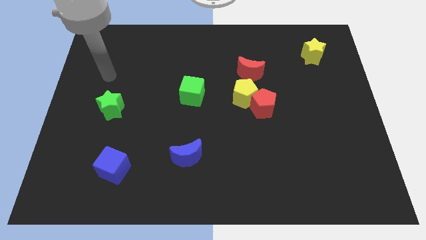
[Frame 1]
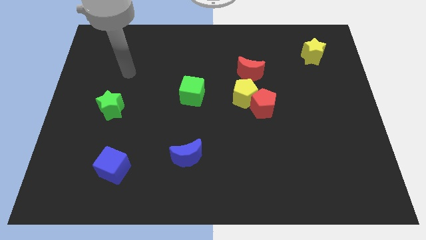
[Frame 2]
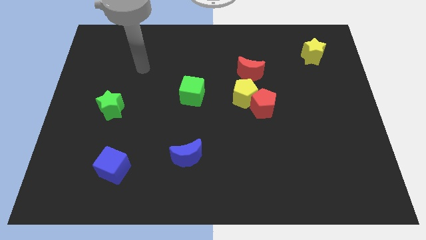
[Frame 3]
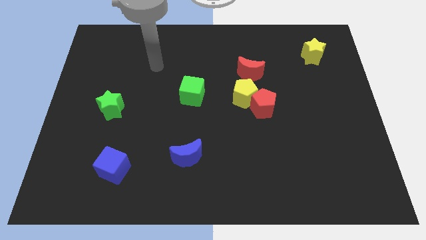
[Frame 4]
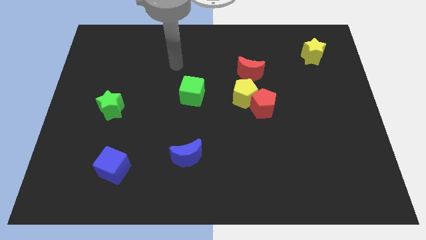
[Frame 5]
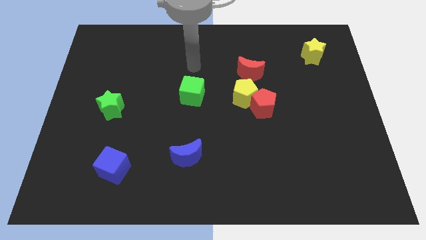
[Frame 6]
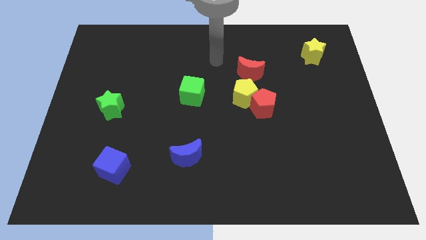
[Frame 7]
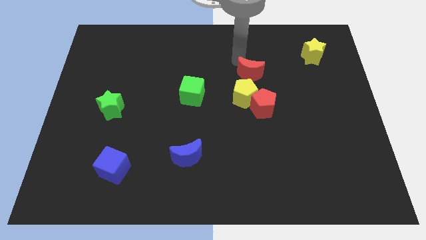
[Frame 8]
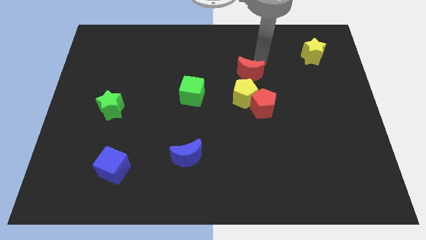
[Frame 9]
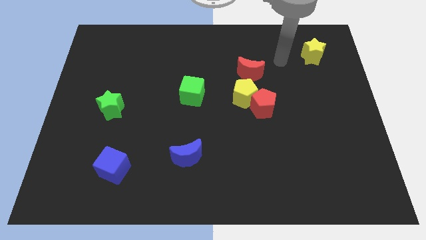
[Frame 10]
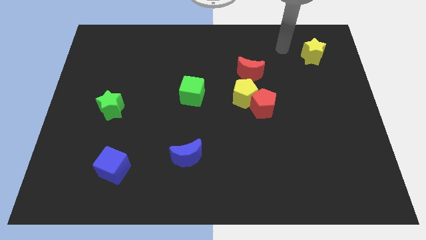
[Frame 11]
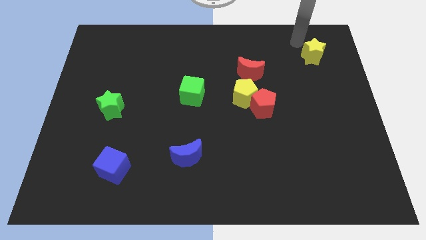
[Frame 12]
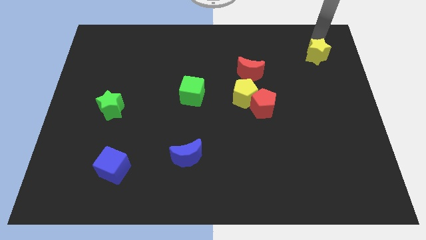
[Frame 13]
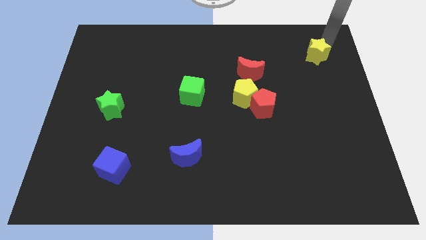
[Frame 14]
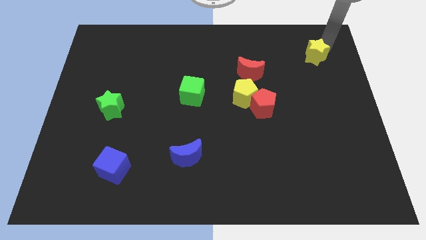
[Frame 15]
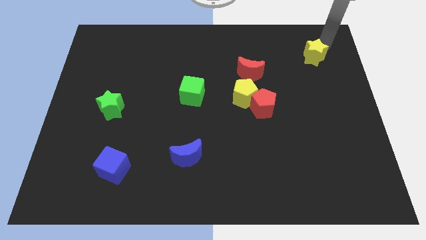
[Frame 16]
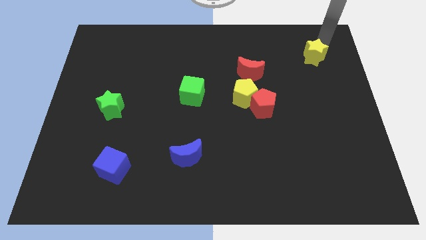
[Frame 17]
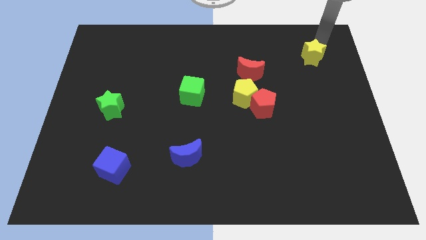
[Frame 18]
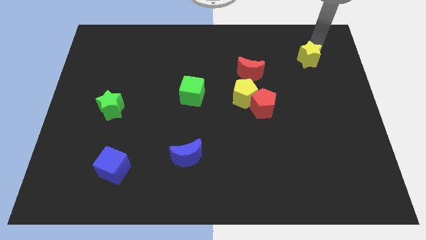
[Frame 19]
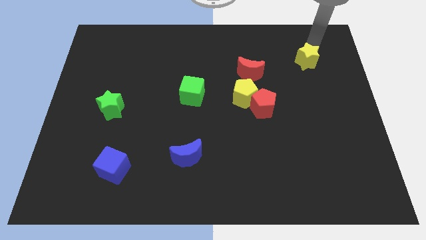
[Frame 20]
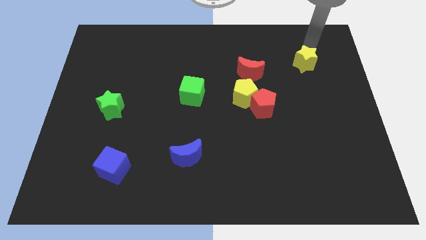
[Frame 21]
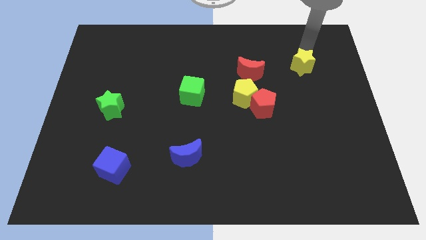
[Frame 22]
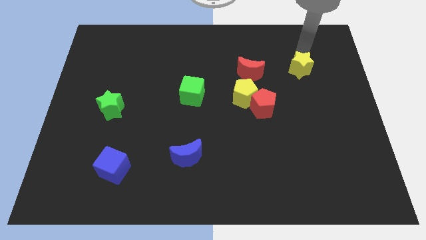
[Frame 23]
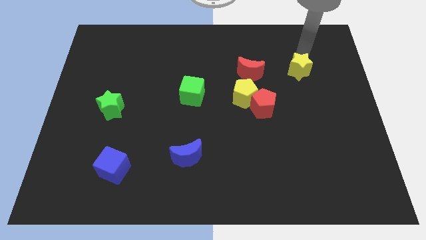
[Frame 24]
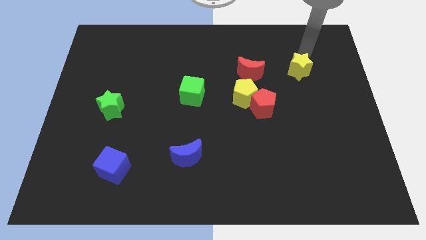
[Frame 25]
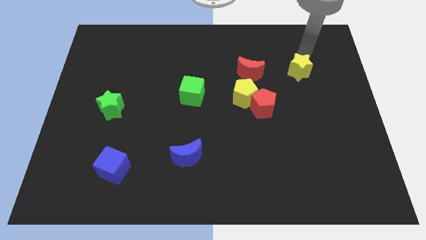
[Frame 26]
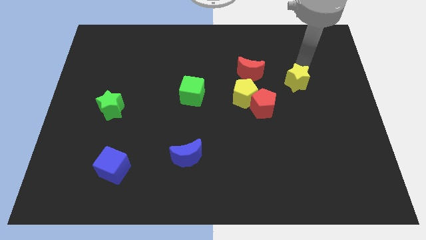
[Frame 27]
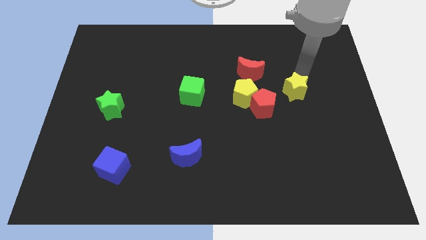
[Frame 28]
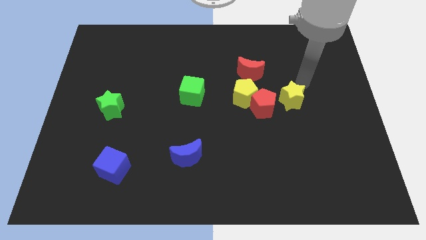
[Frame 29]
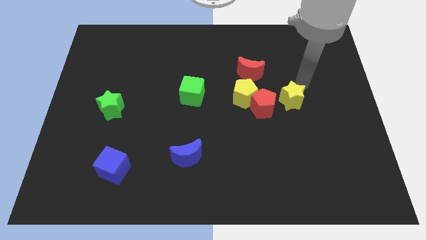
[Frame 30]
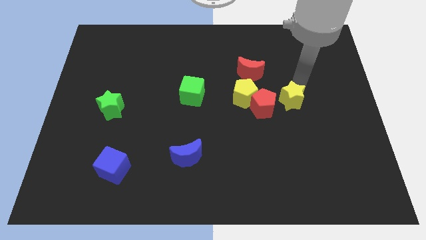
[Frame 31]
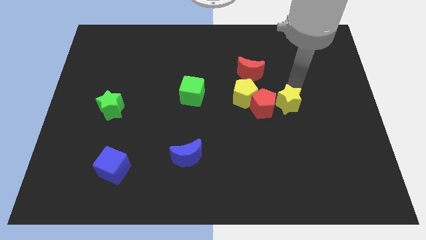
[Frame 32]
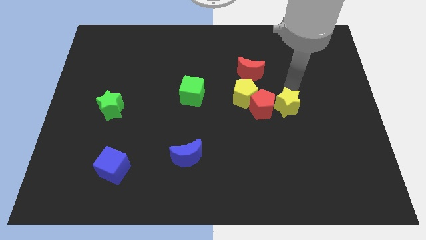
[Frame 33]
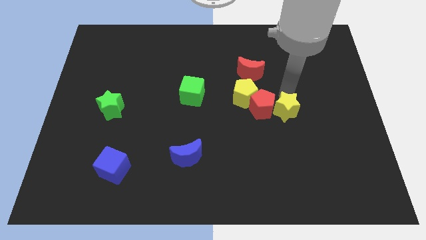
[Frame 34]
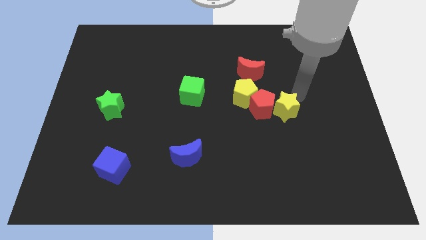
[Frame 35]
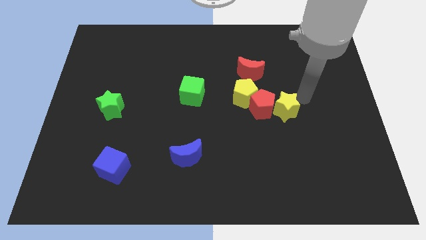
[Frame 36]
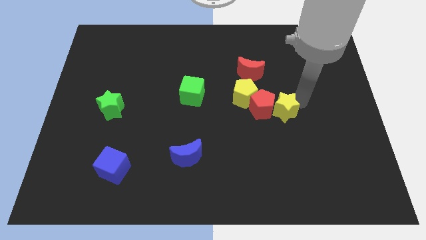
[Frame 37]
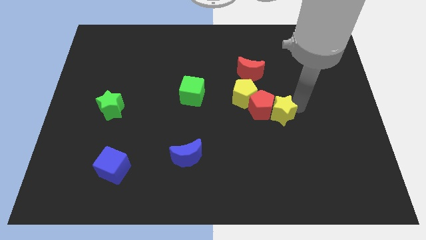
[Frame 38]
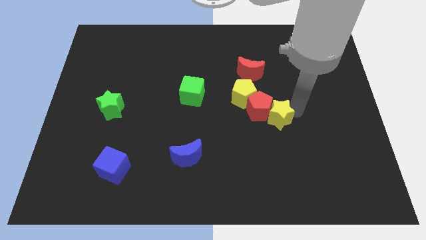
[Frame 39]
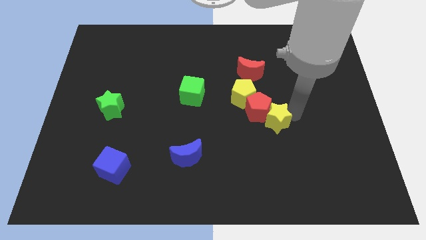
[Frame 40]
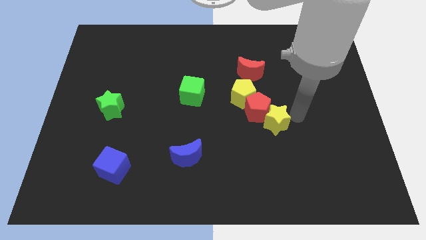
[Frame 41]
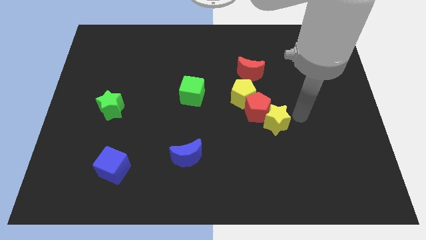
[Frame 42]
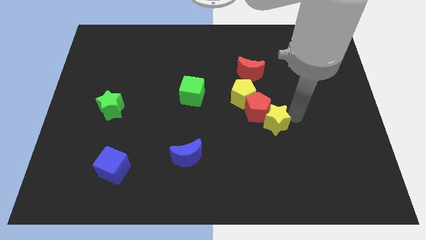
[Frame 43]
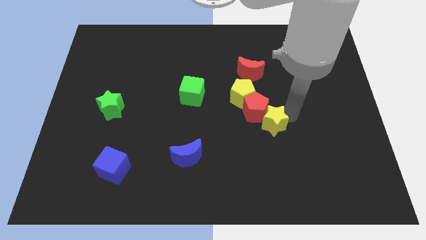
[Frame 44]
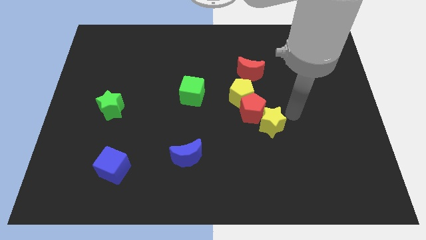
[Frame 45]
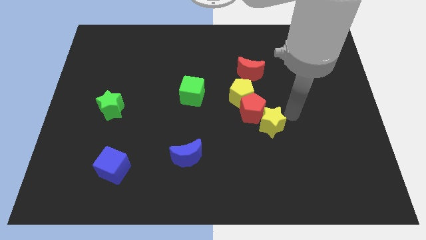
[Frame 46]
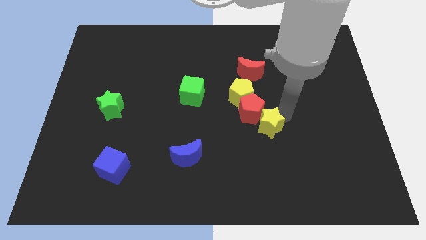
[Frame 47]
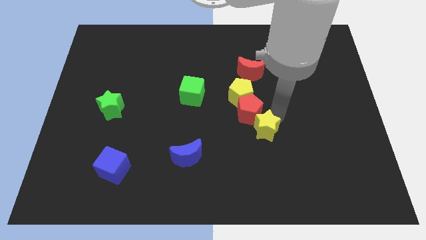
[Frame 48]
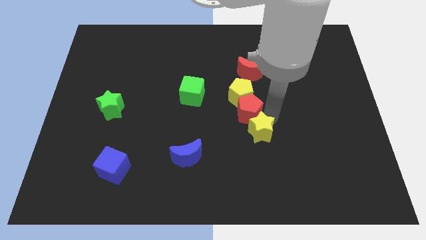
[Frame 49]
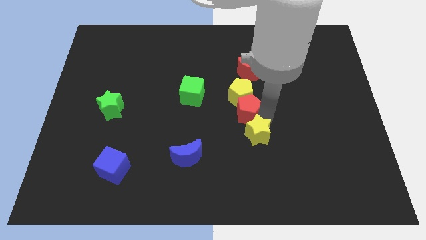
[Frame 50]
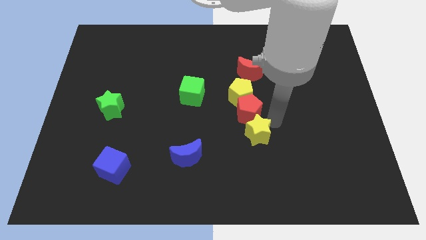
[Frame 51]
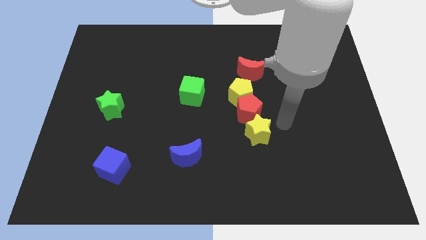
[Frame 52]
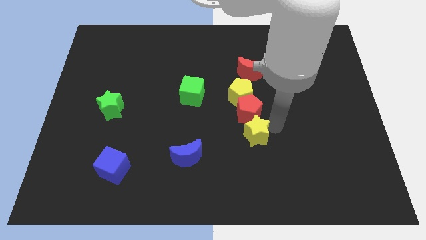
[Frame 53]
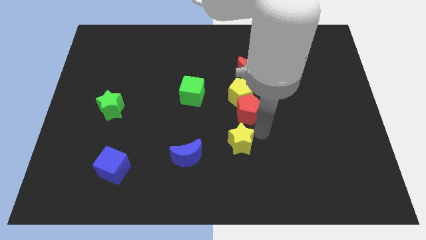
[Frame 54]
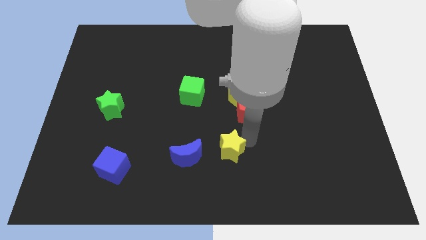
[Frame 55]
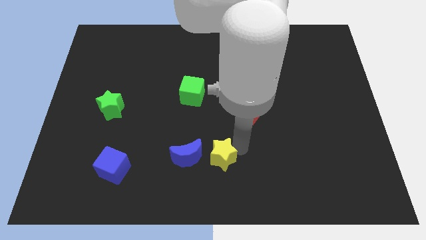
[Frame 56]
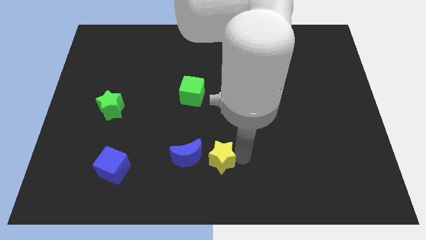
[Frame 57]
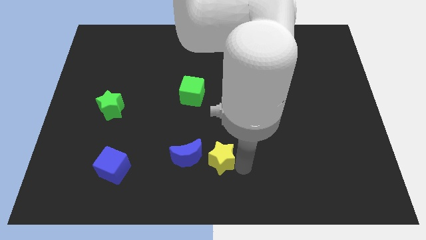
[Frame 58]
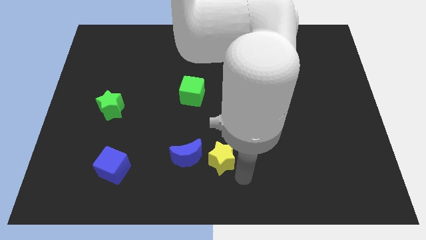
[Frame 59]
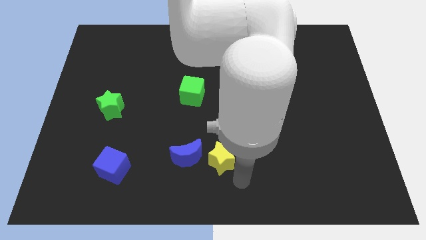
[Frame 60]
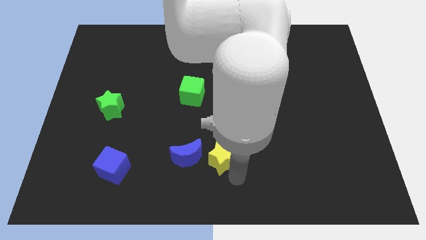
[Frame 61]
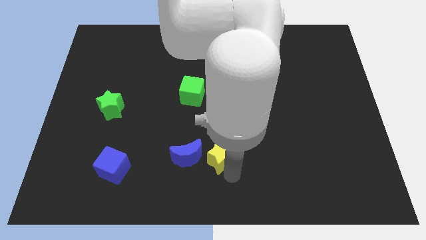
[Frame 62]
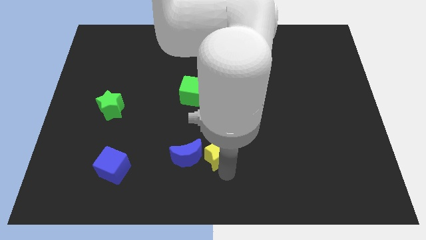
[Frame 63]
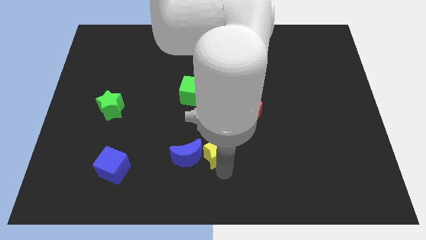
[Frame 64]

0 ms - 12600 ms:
slide the yellow star to the blue moon

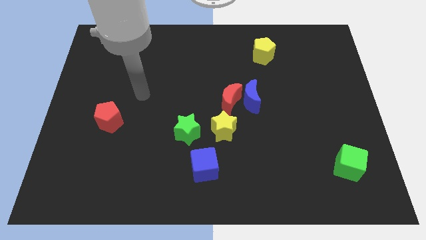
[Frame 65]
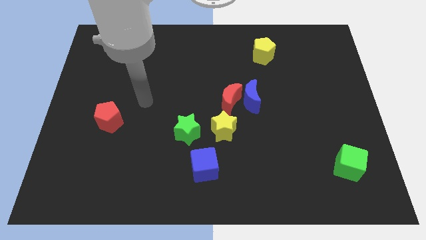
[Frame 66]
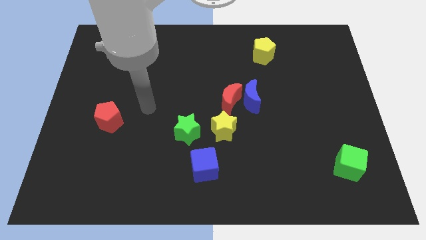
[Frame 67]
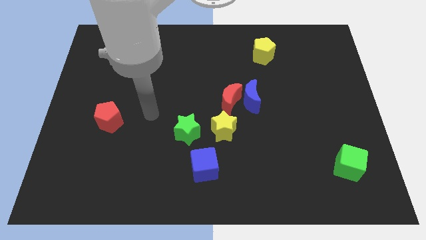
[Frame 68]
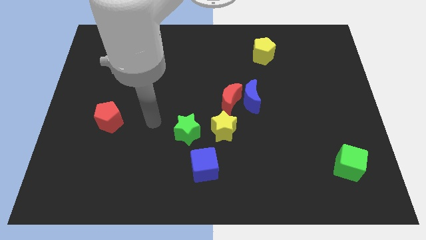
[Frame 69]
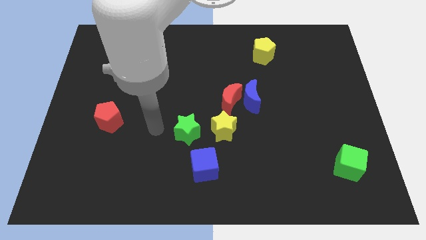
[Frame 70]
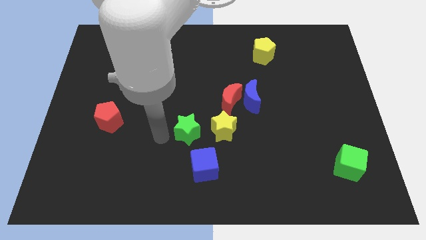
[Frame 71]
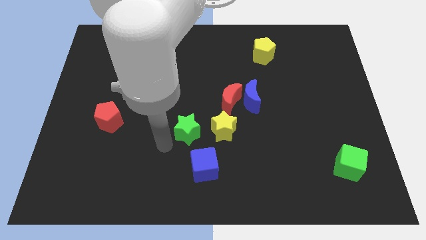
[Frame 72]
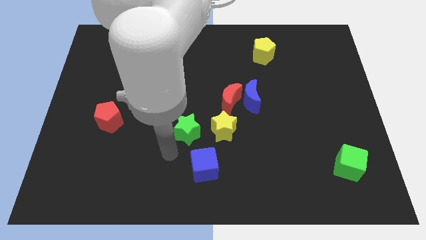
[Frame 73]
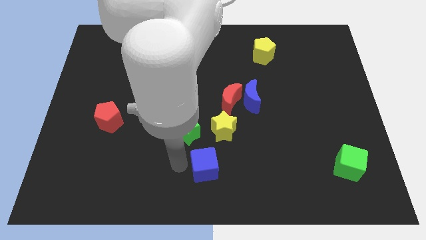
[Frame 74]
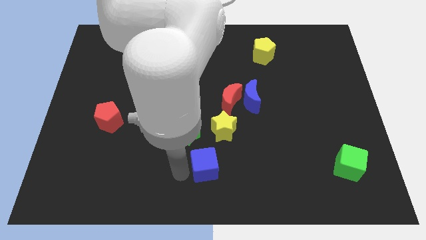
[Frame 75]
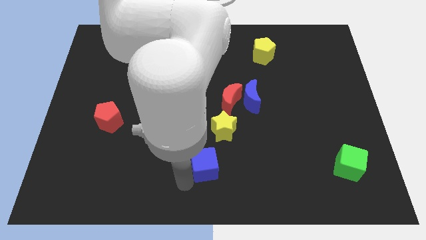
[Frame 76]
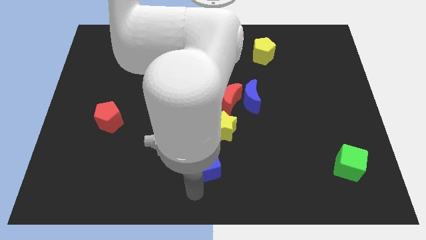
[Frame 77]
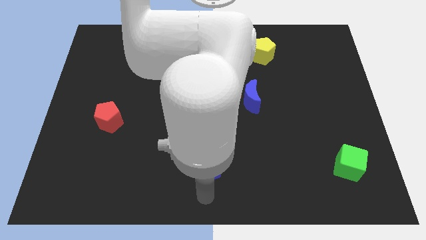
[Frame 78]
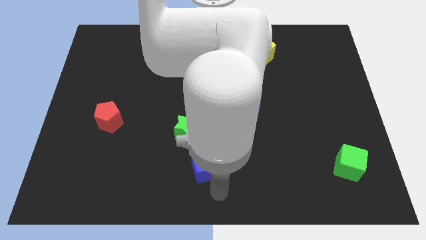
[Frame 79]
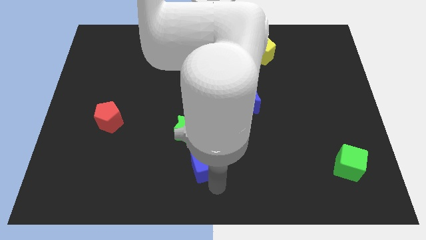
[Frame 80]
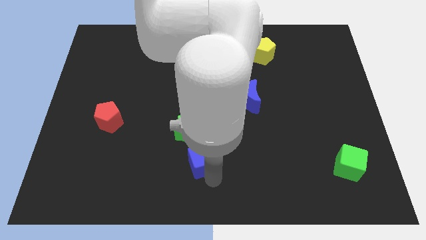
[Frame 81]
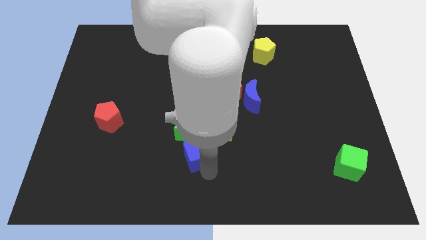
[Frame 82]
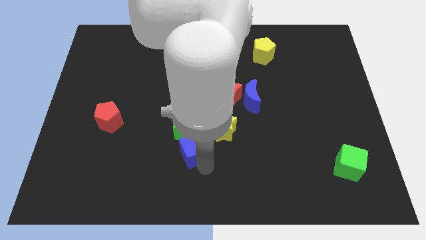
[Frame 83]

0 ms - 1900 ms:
move the blue cube close to the green star
